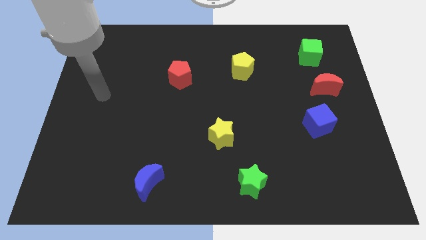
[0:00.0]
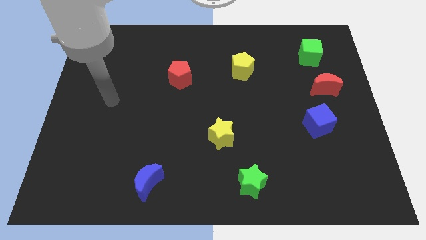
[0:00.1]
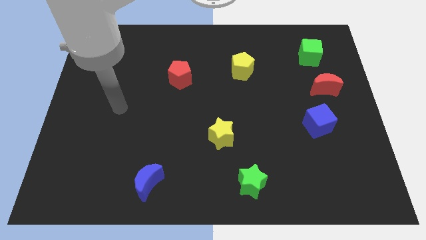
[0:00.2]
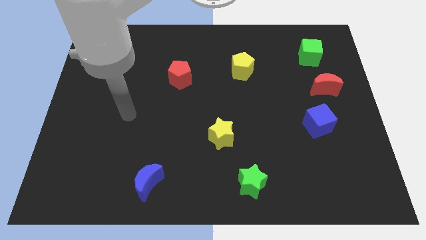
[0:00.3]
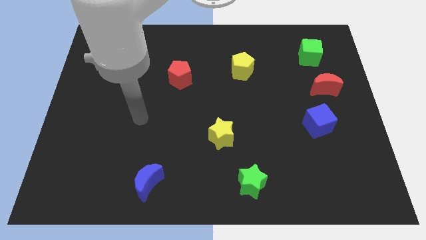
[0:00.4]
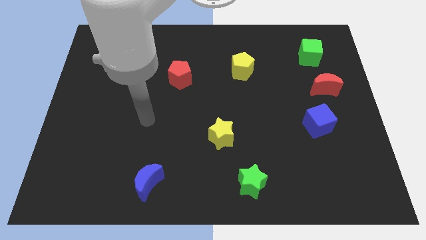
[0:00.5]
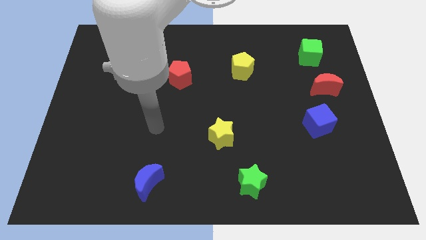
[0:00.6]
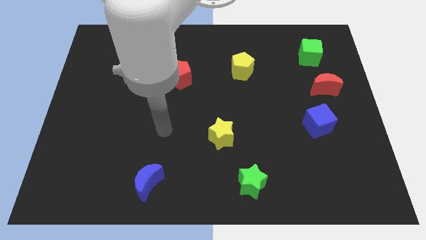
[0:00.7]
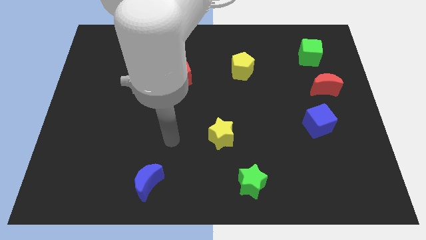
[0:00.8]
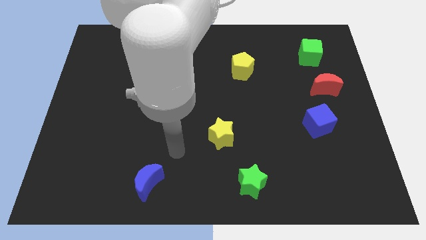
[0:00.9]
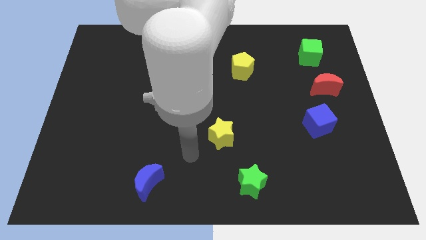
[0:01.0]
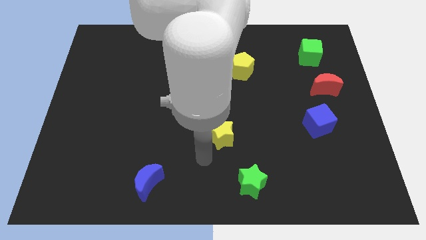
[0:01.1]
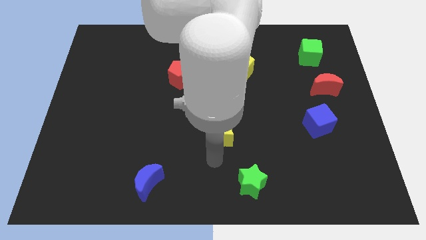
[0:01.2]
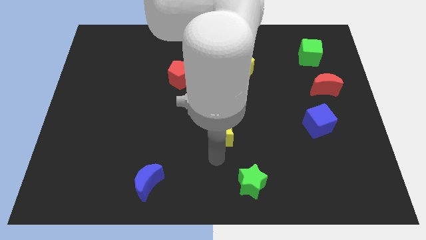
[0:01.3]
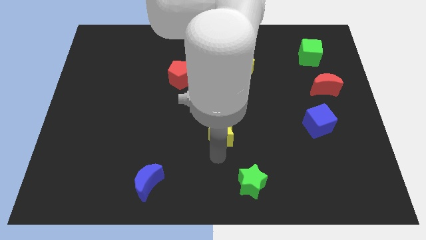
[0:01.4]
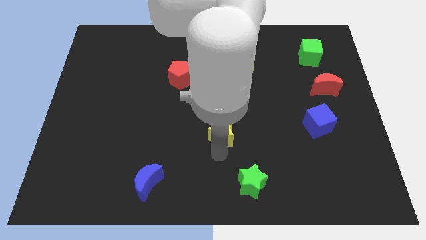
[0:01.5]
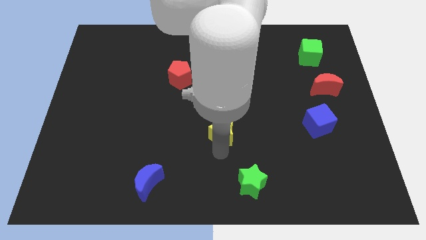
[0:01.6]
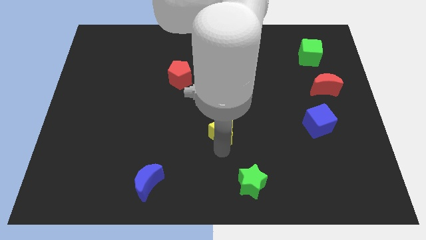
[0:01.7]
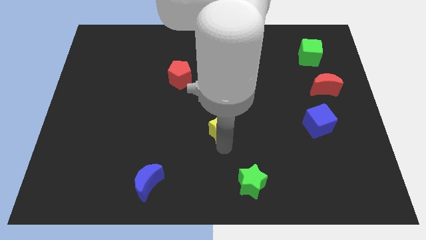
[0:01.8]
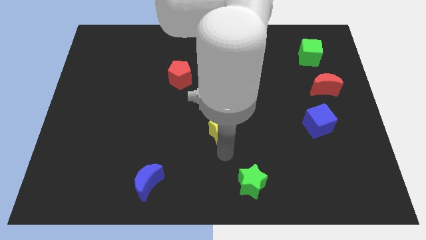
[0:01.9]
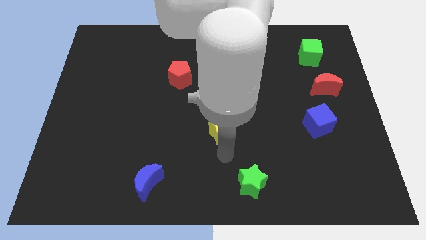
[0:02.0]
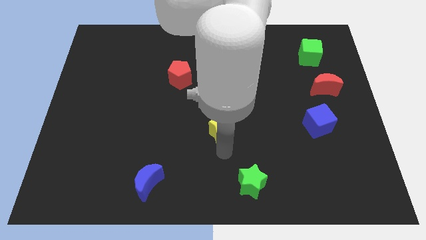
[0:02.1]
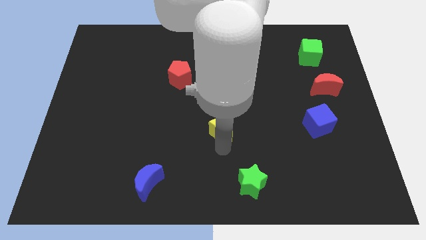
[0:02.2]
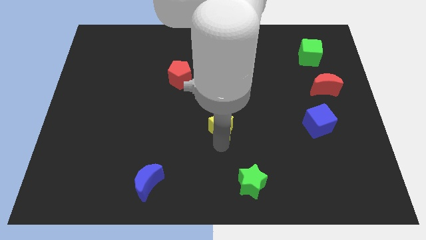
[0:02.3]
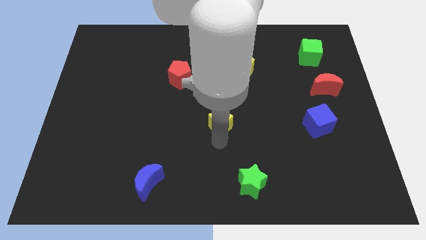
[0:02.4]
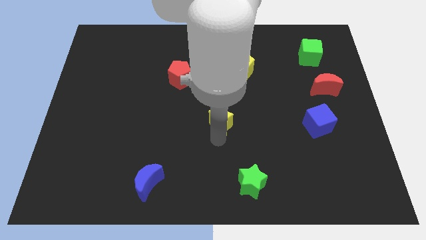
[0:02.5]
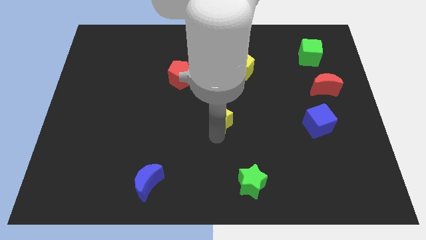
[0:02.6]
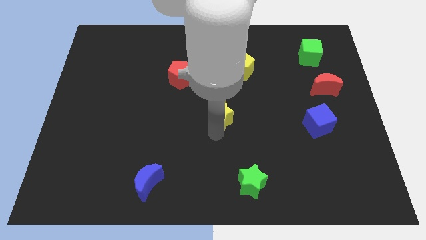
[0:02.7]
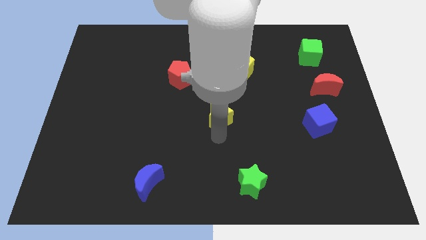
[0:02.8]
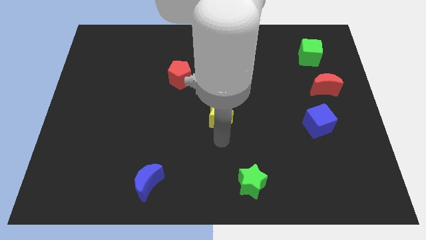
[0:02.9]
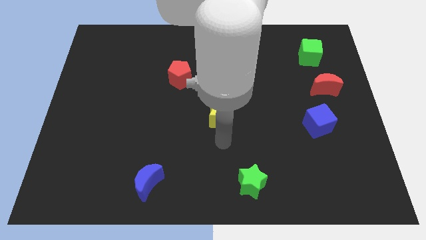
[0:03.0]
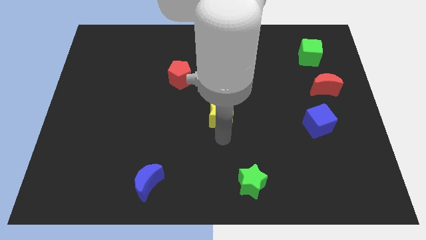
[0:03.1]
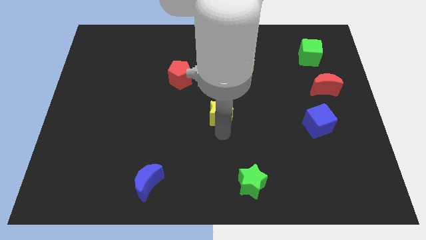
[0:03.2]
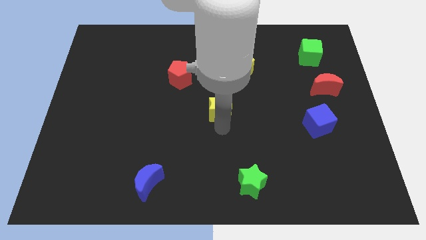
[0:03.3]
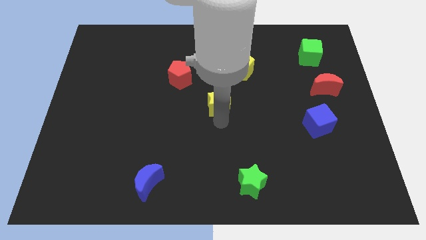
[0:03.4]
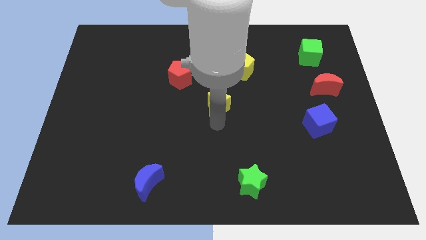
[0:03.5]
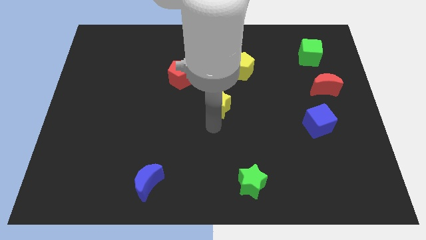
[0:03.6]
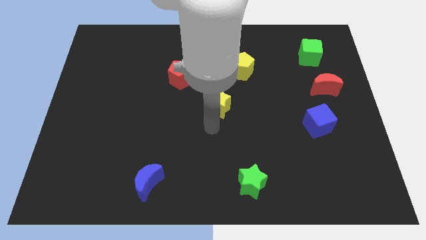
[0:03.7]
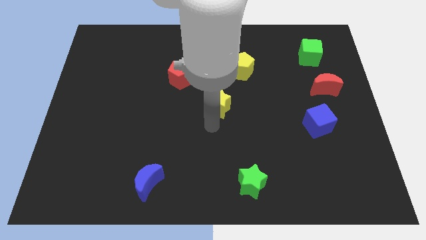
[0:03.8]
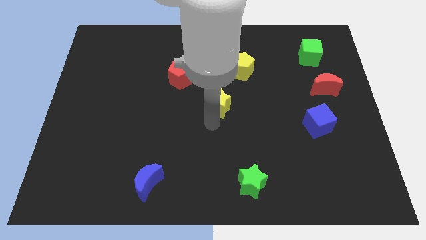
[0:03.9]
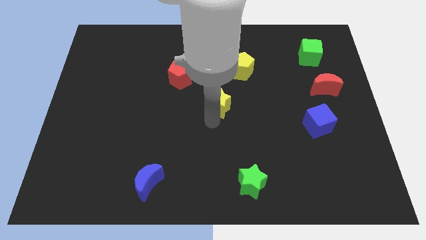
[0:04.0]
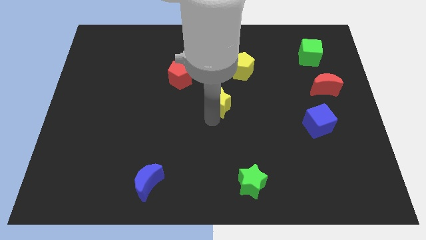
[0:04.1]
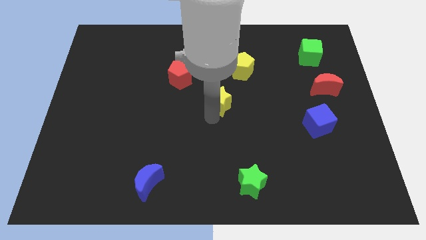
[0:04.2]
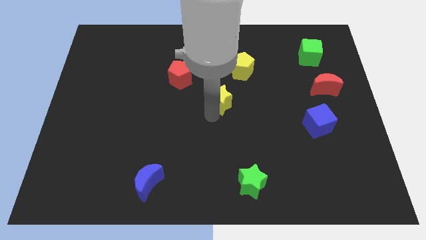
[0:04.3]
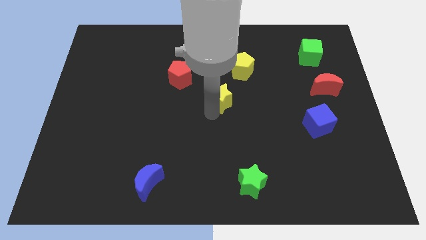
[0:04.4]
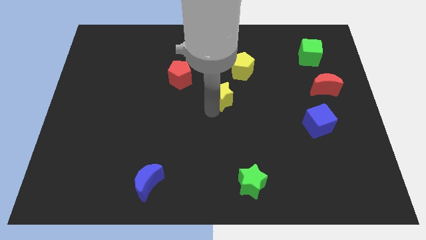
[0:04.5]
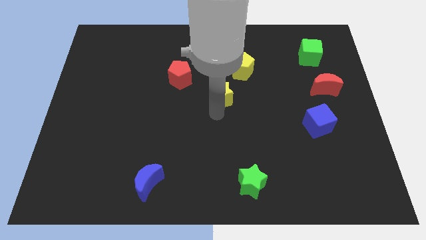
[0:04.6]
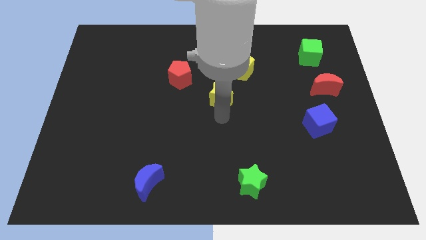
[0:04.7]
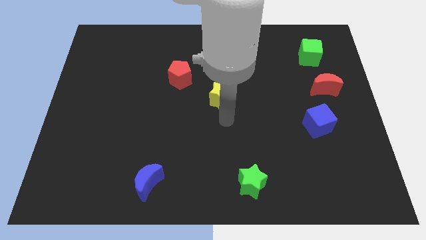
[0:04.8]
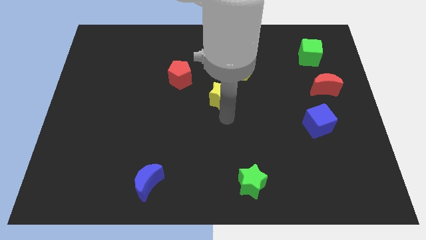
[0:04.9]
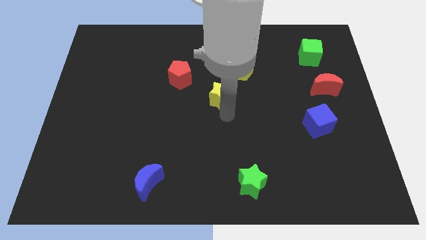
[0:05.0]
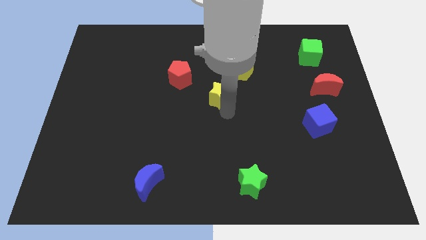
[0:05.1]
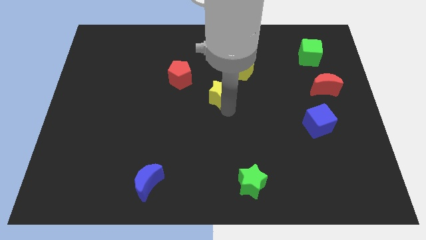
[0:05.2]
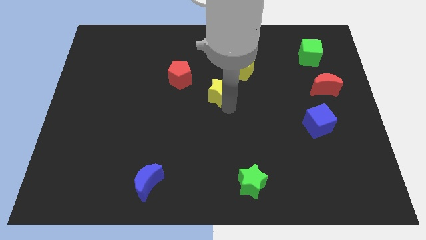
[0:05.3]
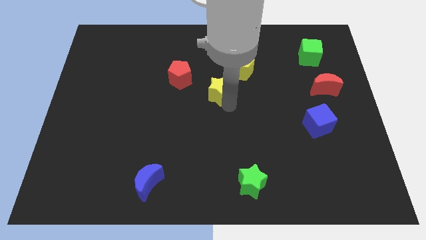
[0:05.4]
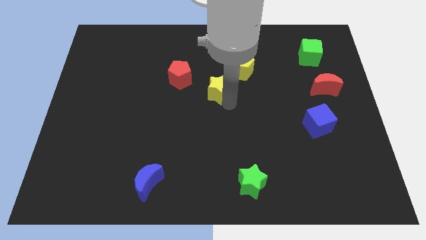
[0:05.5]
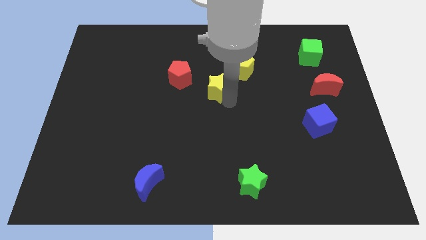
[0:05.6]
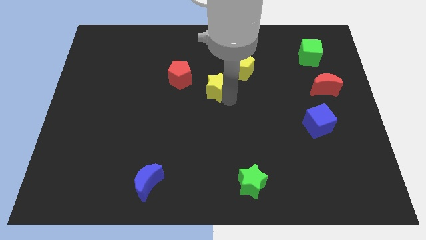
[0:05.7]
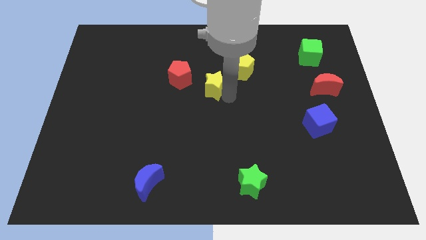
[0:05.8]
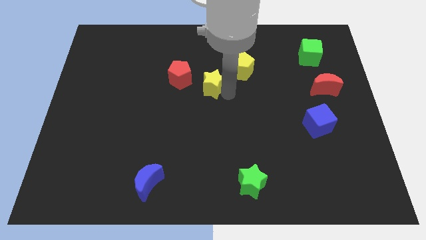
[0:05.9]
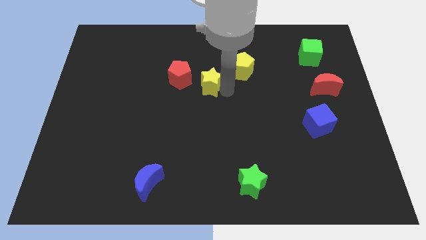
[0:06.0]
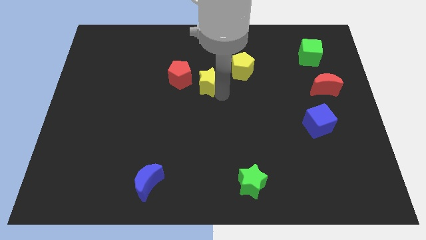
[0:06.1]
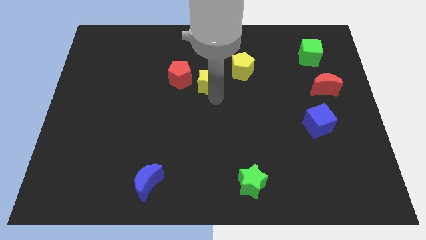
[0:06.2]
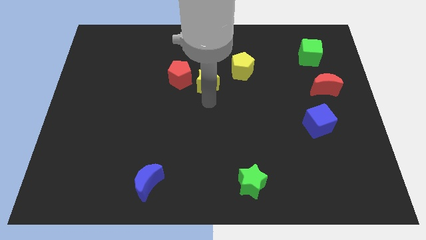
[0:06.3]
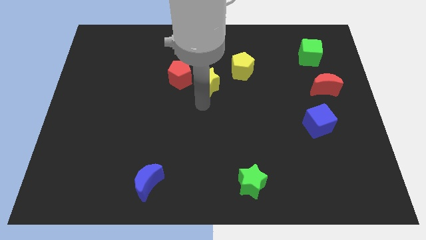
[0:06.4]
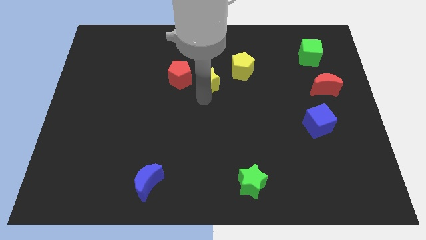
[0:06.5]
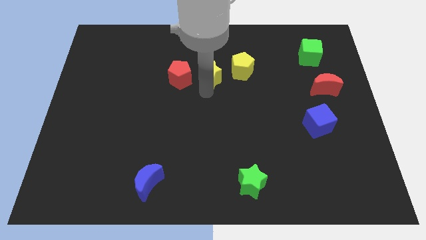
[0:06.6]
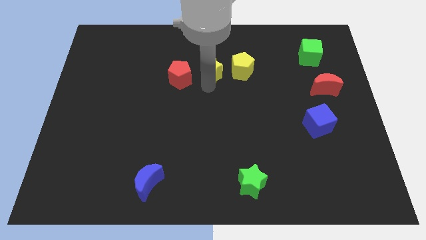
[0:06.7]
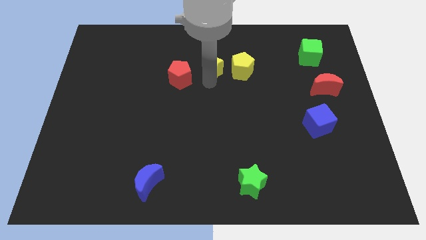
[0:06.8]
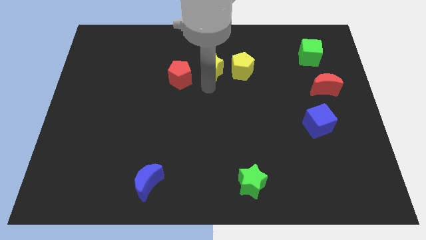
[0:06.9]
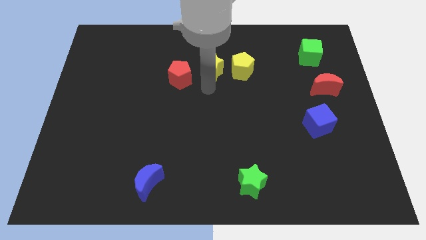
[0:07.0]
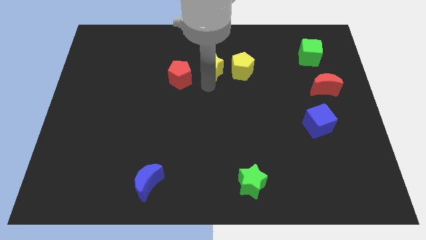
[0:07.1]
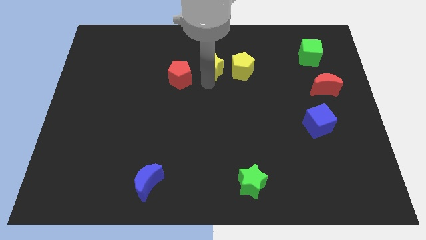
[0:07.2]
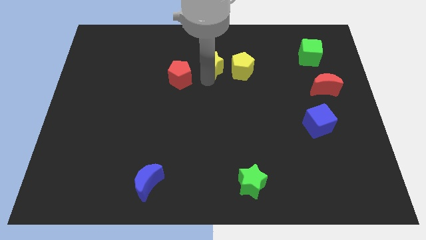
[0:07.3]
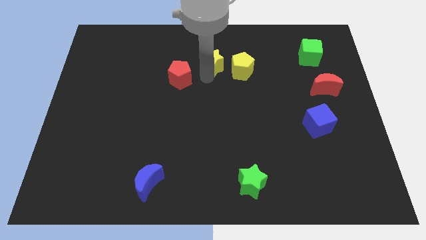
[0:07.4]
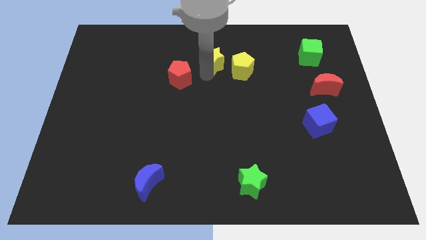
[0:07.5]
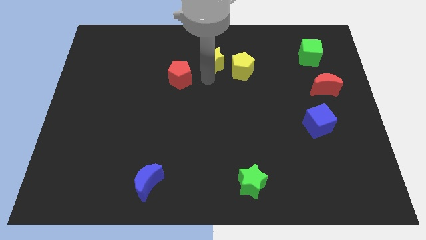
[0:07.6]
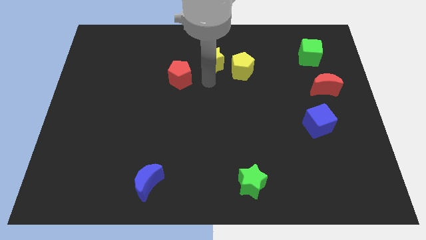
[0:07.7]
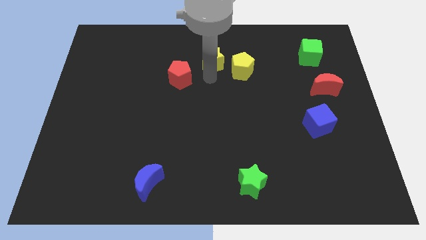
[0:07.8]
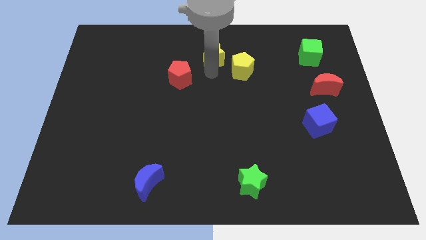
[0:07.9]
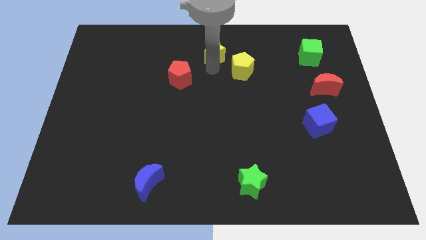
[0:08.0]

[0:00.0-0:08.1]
slide the yellow star to the top side
